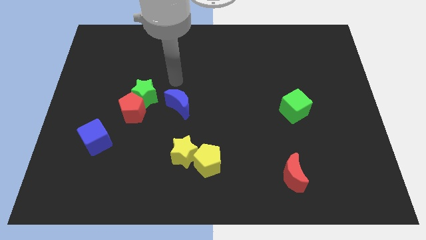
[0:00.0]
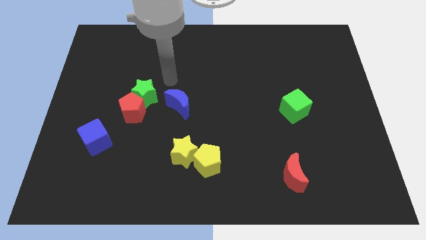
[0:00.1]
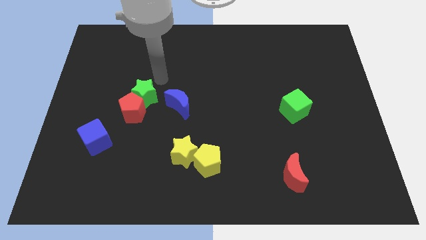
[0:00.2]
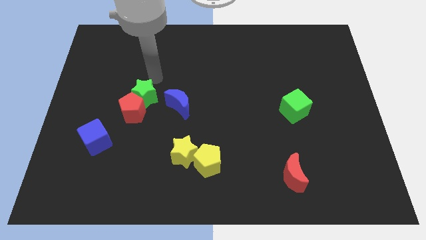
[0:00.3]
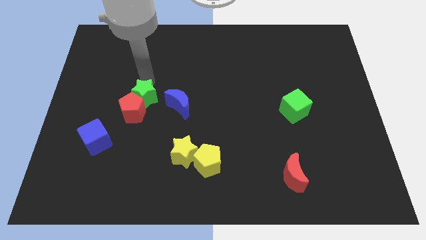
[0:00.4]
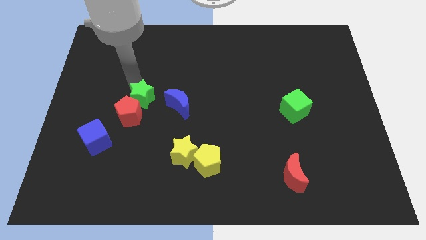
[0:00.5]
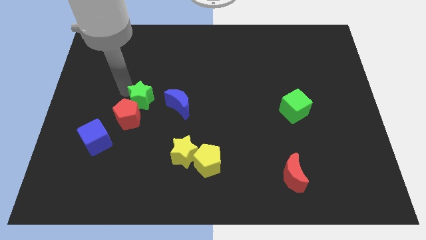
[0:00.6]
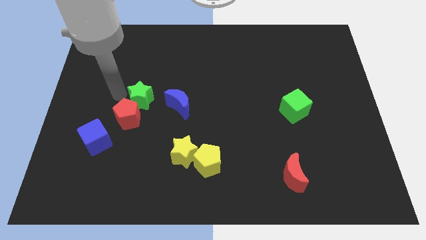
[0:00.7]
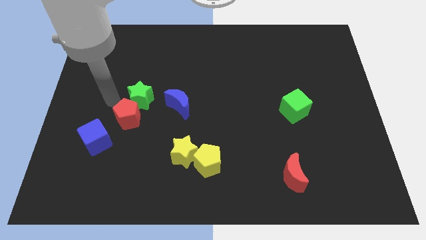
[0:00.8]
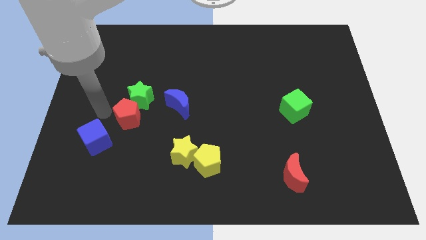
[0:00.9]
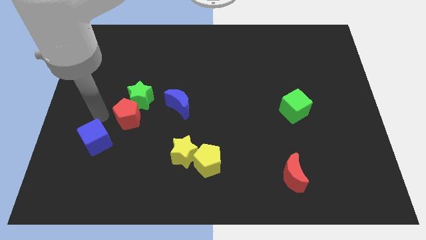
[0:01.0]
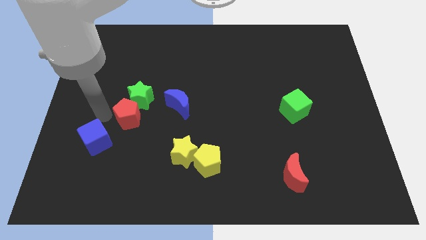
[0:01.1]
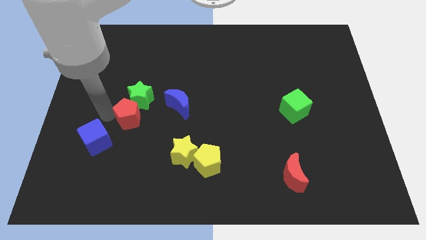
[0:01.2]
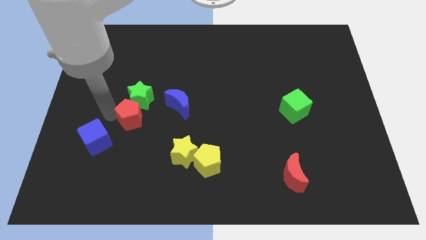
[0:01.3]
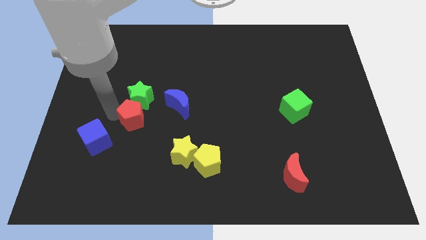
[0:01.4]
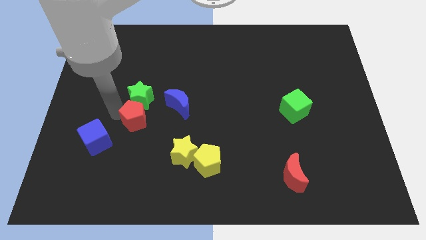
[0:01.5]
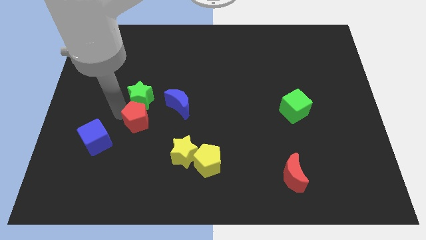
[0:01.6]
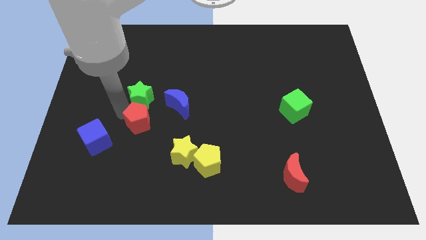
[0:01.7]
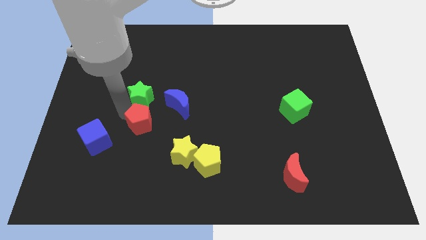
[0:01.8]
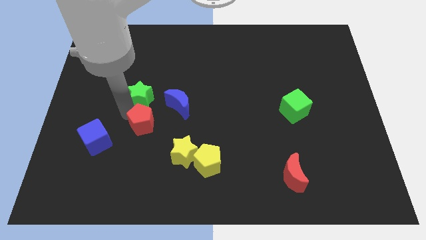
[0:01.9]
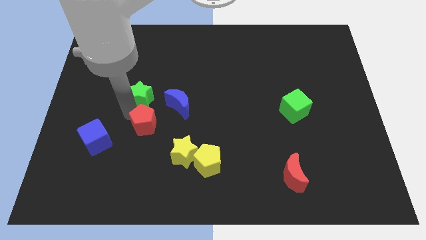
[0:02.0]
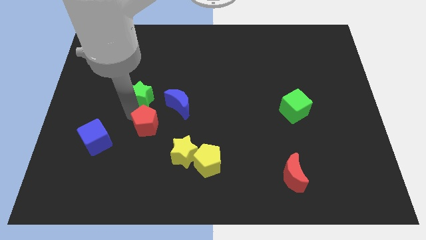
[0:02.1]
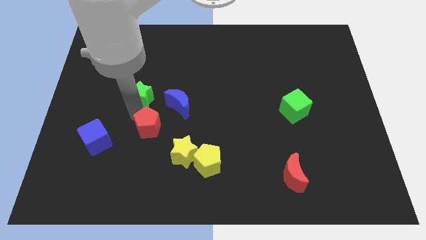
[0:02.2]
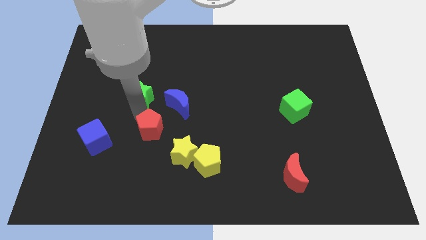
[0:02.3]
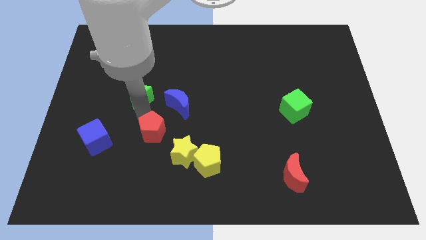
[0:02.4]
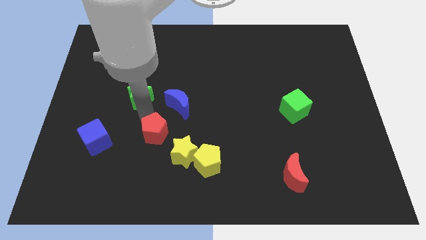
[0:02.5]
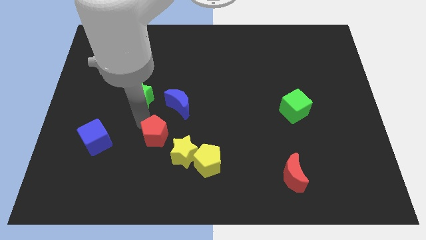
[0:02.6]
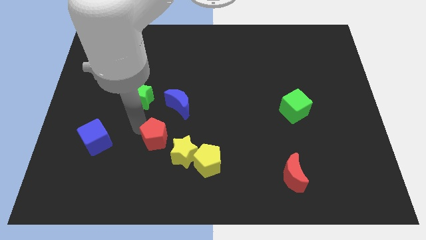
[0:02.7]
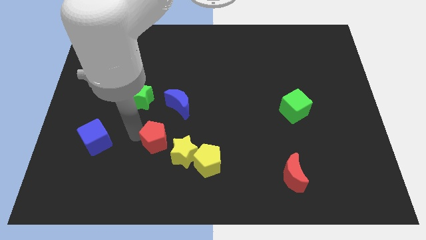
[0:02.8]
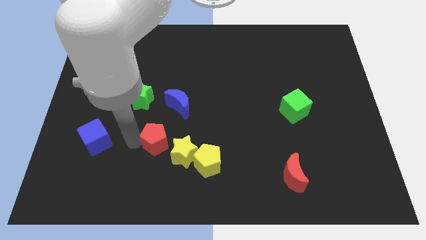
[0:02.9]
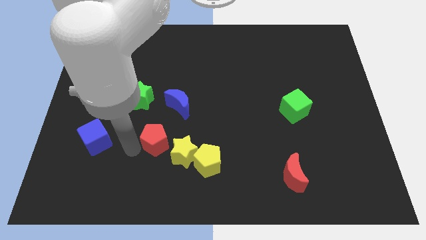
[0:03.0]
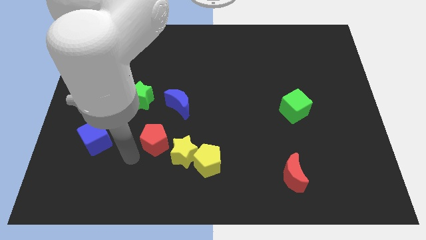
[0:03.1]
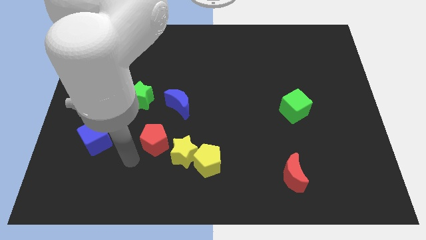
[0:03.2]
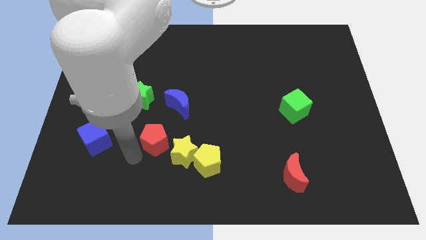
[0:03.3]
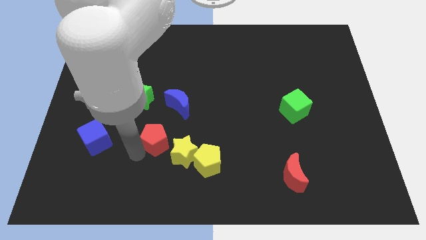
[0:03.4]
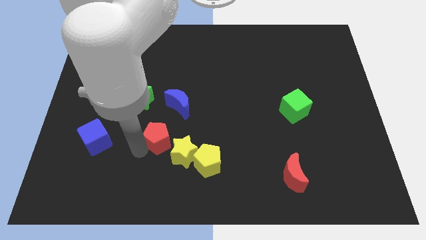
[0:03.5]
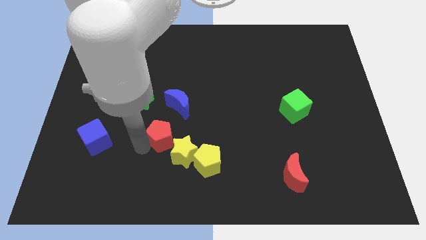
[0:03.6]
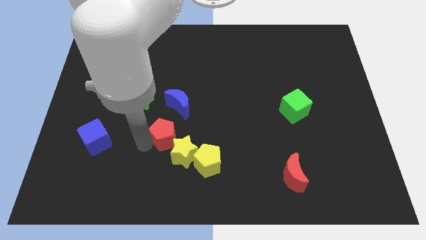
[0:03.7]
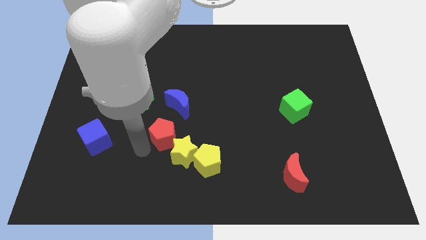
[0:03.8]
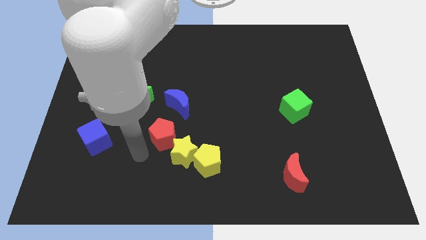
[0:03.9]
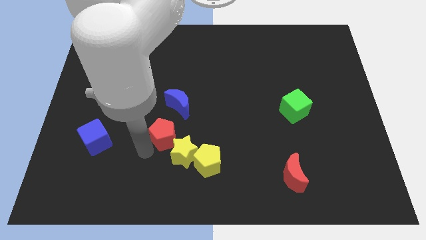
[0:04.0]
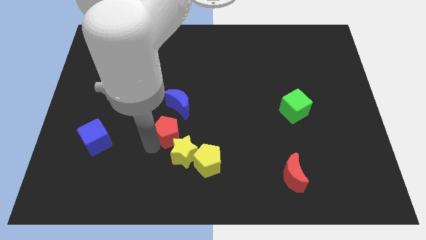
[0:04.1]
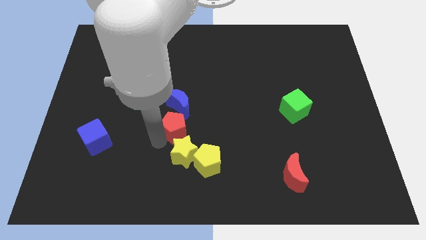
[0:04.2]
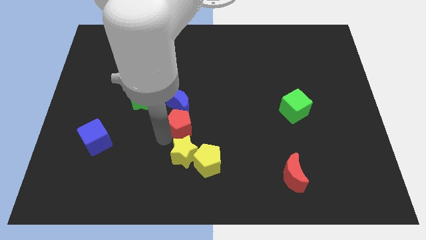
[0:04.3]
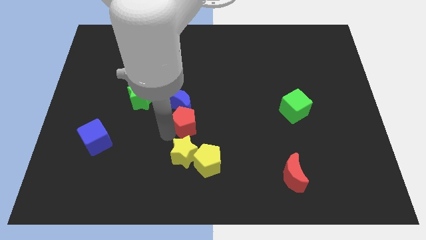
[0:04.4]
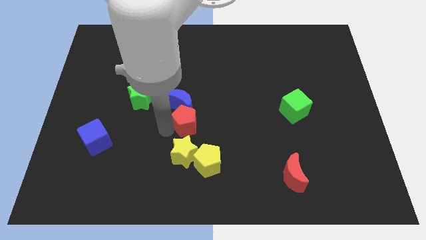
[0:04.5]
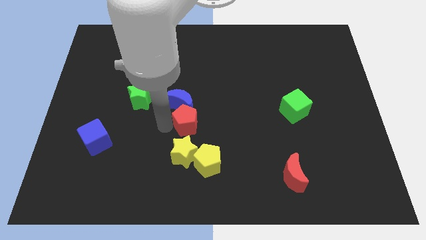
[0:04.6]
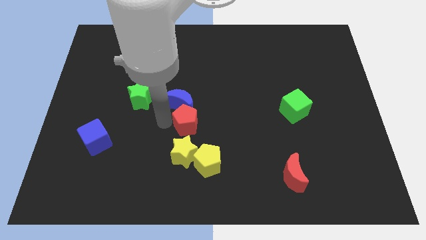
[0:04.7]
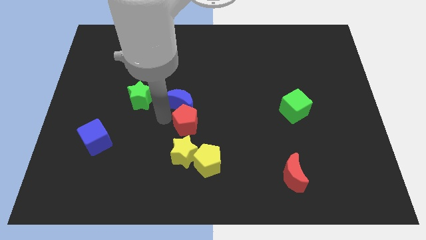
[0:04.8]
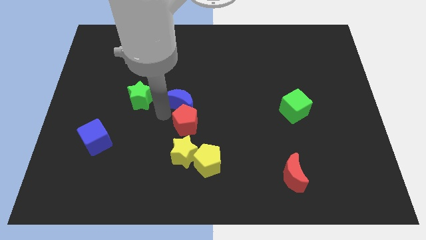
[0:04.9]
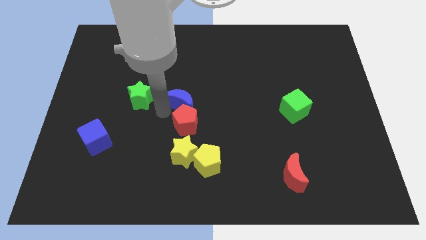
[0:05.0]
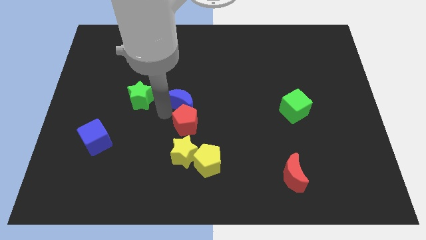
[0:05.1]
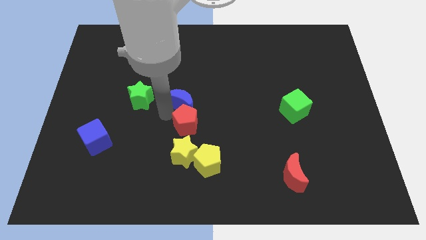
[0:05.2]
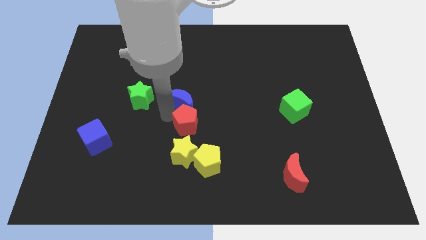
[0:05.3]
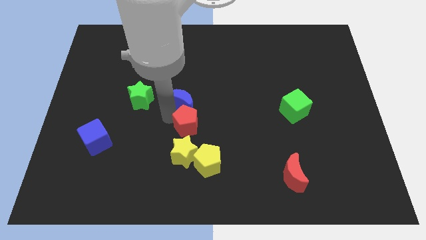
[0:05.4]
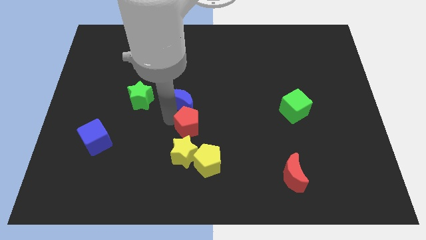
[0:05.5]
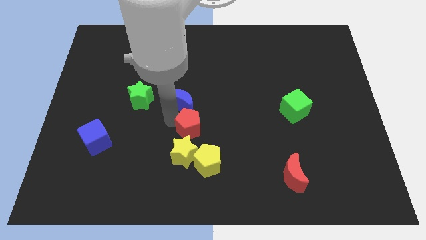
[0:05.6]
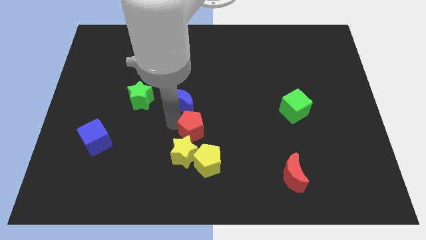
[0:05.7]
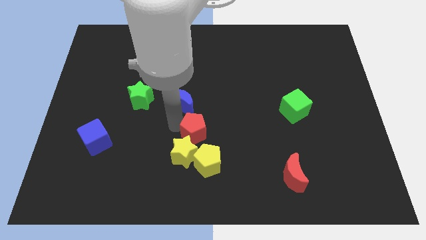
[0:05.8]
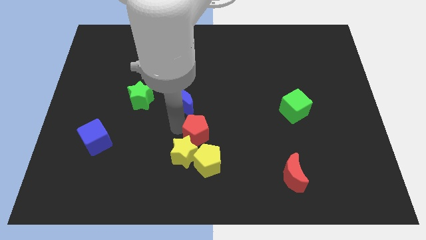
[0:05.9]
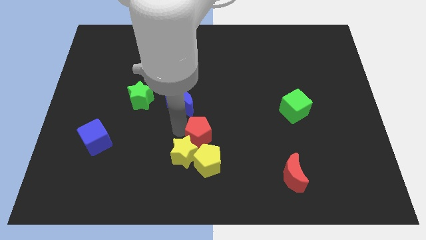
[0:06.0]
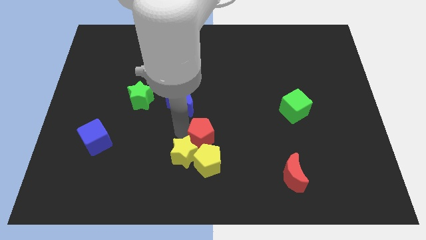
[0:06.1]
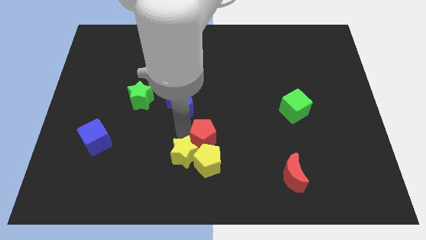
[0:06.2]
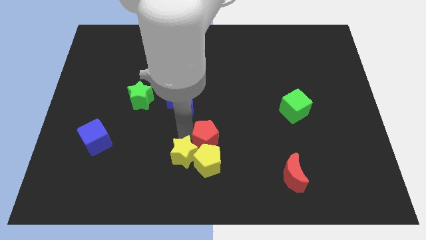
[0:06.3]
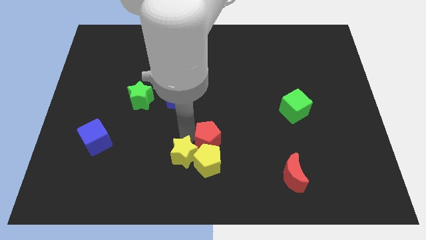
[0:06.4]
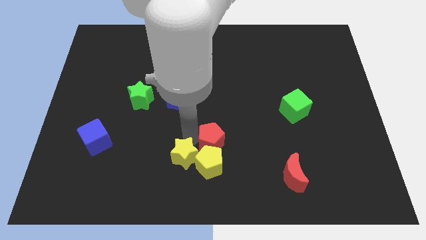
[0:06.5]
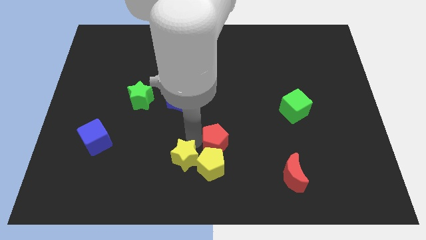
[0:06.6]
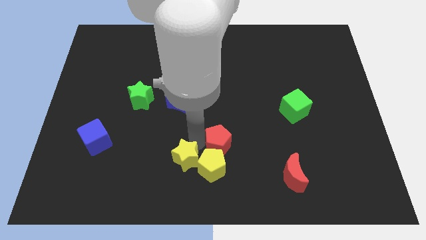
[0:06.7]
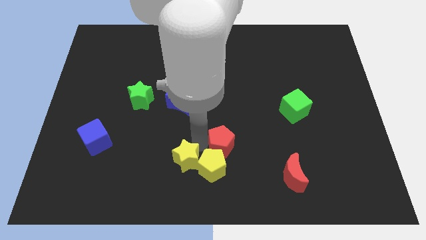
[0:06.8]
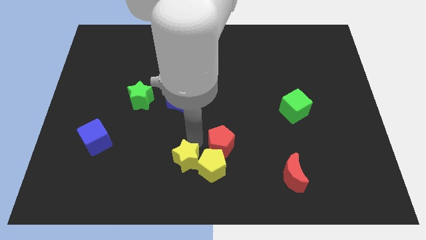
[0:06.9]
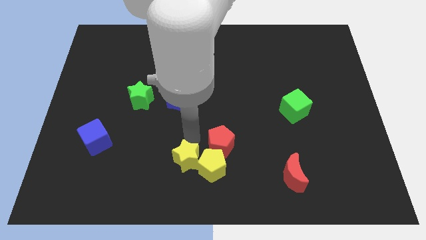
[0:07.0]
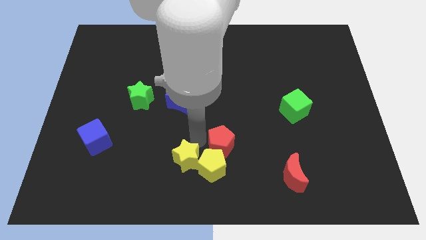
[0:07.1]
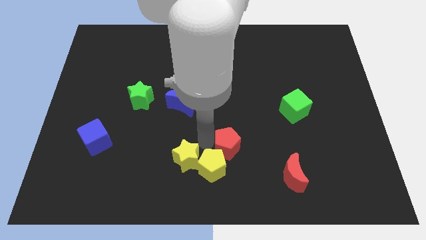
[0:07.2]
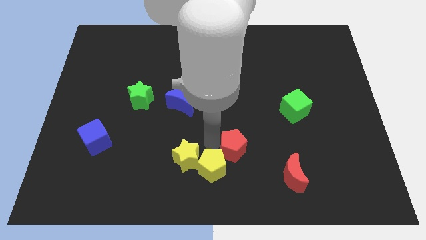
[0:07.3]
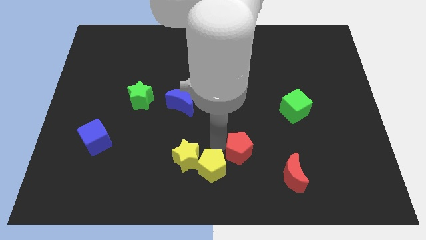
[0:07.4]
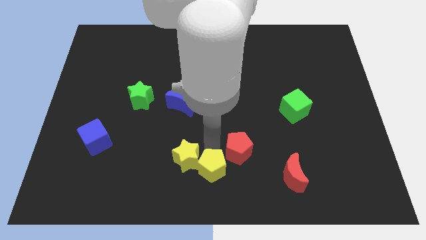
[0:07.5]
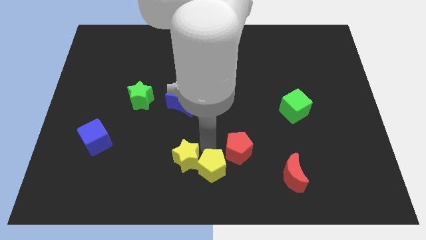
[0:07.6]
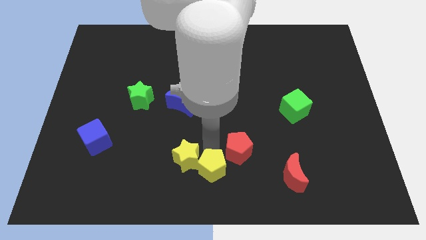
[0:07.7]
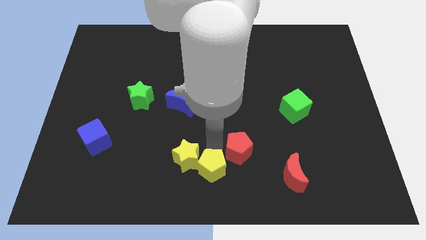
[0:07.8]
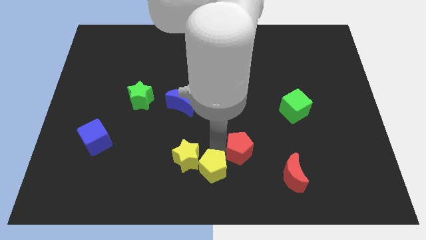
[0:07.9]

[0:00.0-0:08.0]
push the red pentagon diagonally up and to the left of the red moon
